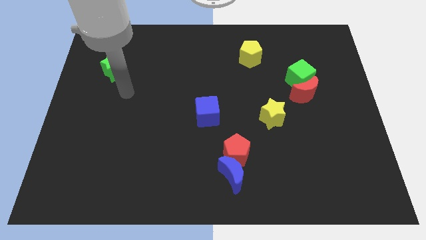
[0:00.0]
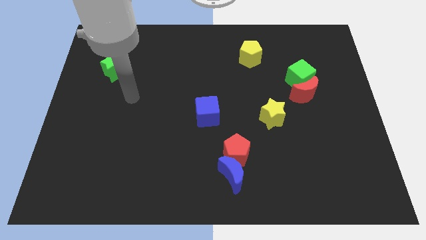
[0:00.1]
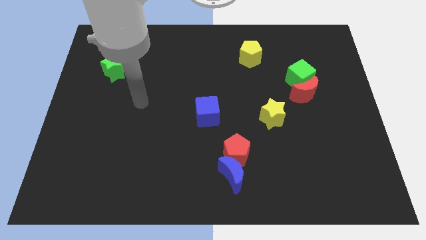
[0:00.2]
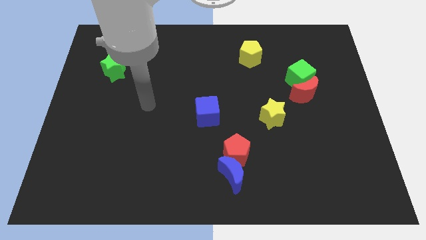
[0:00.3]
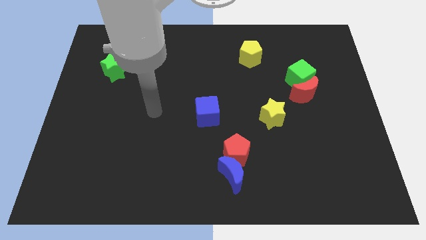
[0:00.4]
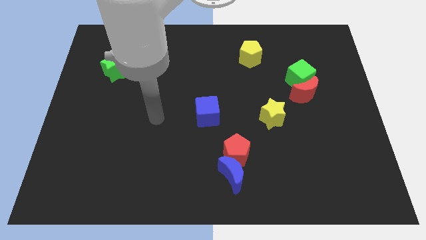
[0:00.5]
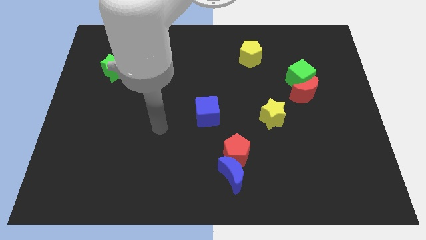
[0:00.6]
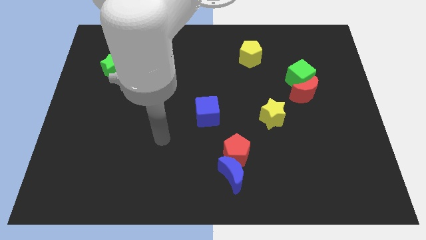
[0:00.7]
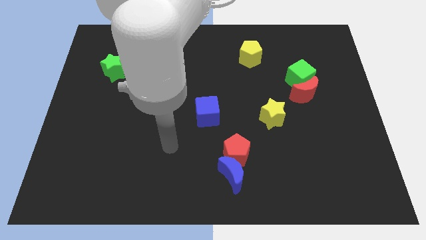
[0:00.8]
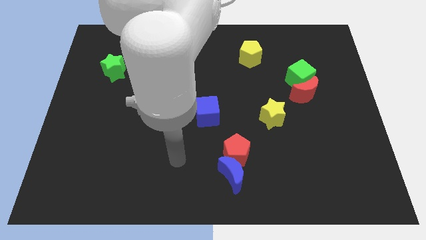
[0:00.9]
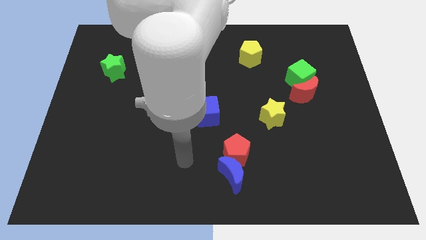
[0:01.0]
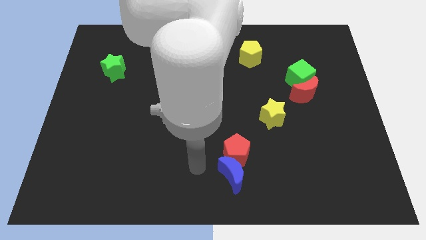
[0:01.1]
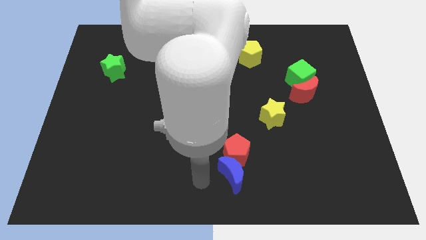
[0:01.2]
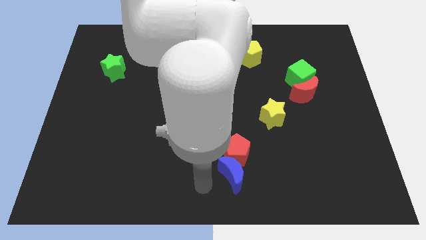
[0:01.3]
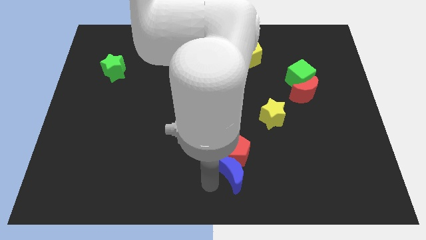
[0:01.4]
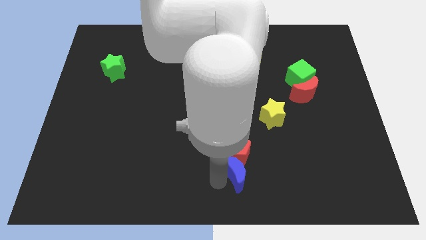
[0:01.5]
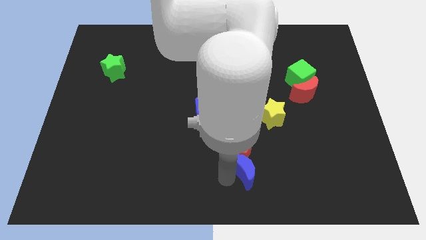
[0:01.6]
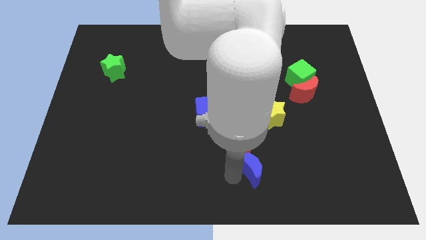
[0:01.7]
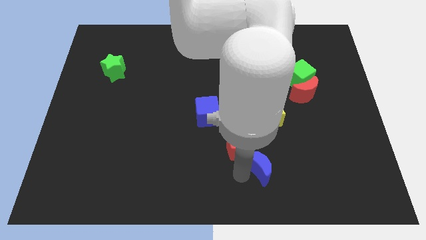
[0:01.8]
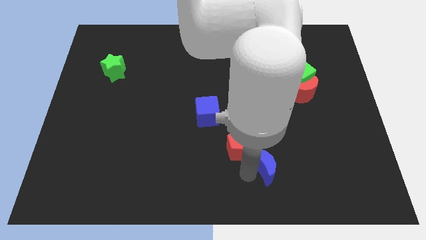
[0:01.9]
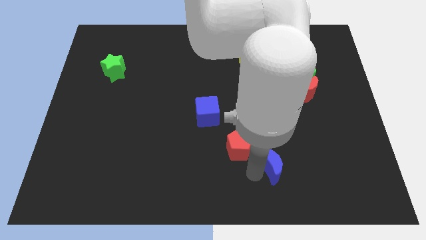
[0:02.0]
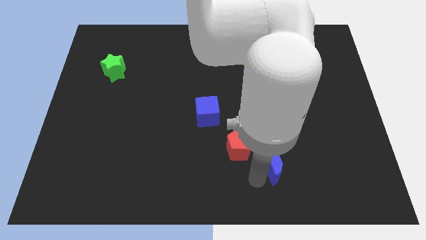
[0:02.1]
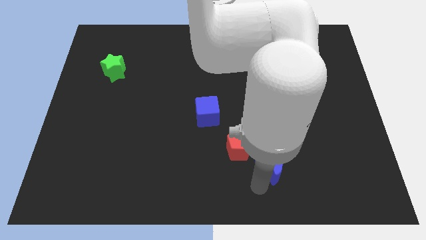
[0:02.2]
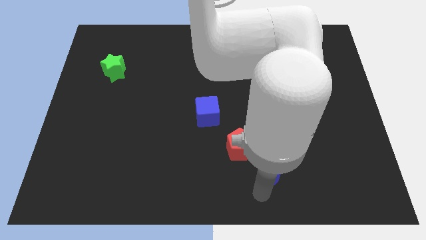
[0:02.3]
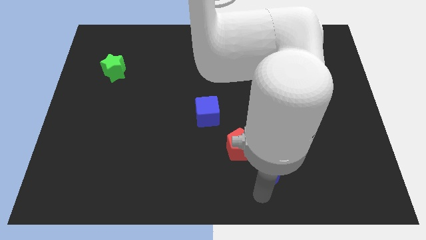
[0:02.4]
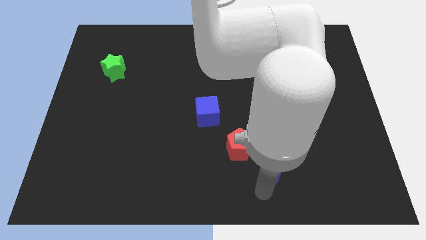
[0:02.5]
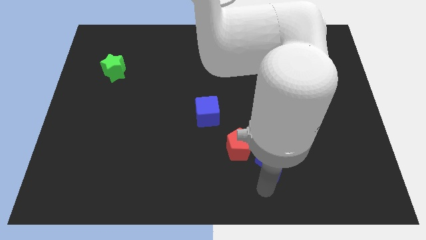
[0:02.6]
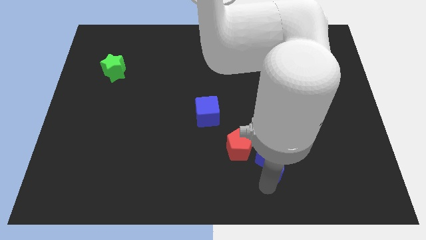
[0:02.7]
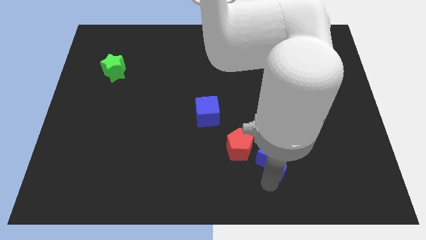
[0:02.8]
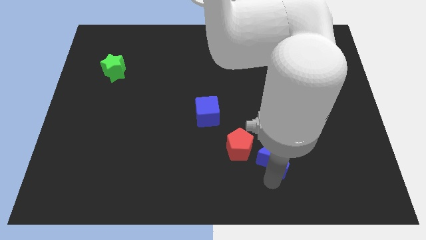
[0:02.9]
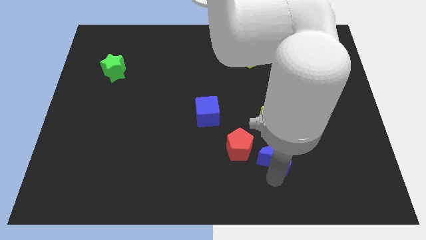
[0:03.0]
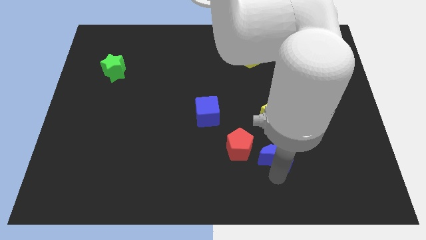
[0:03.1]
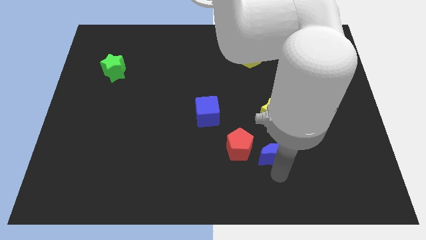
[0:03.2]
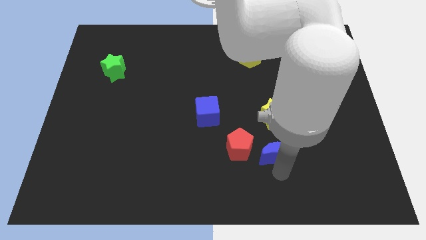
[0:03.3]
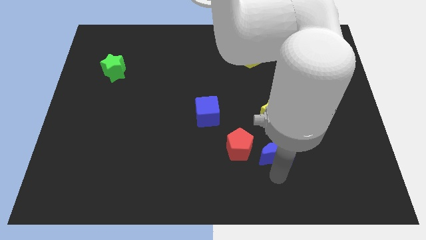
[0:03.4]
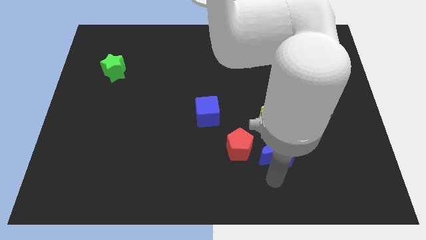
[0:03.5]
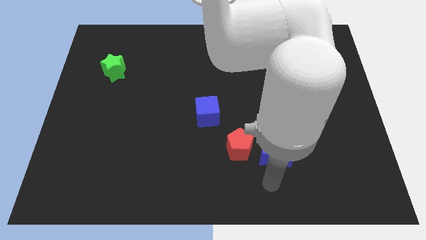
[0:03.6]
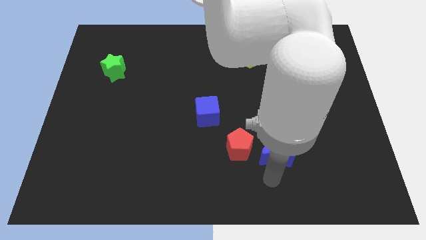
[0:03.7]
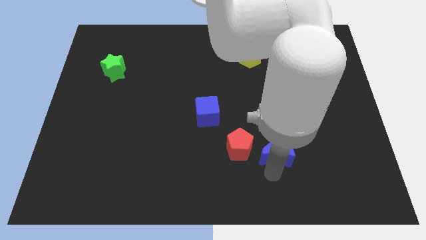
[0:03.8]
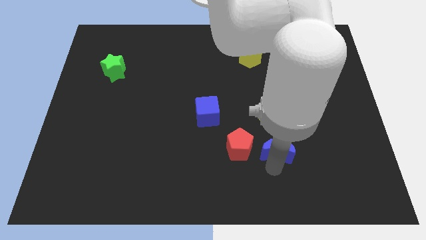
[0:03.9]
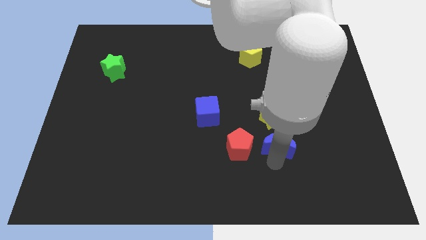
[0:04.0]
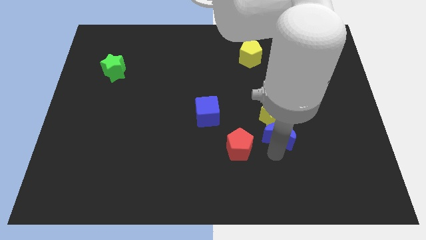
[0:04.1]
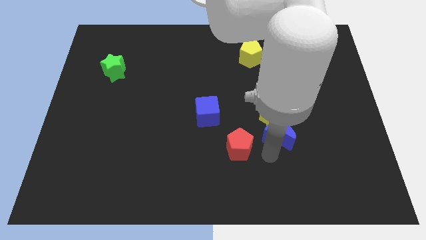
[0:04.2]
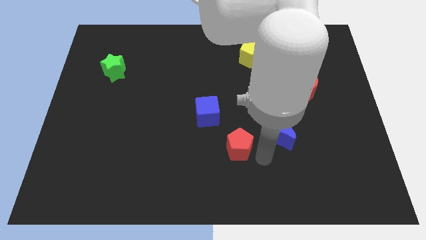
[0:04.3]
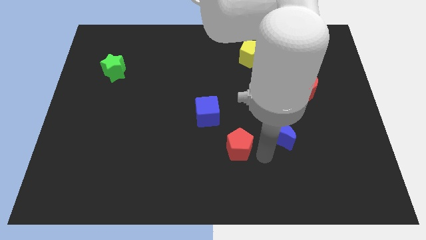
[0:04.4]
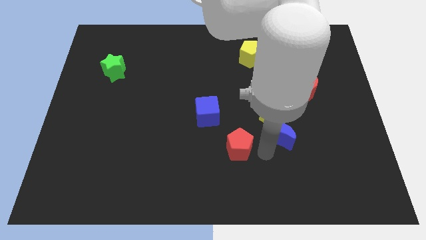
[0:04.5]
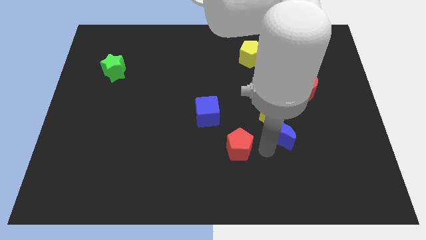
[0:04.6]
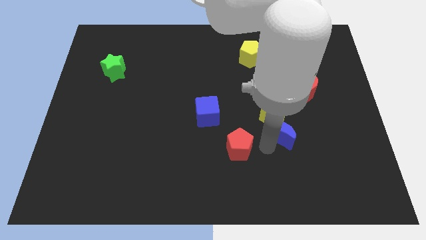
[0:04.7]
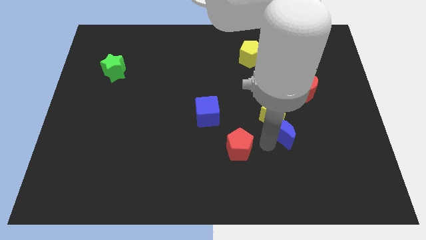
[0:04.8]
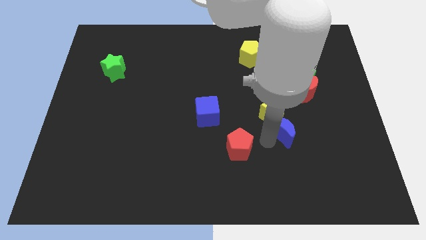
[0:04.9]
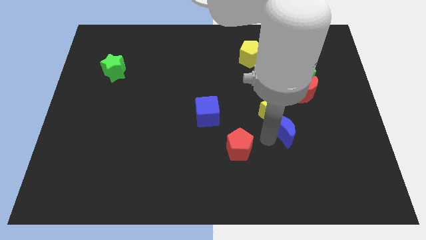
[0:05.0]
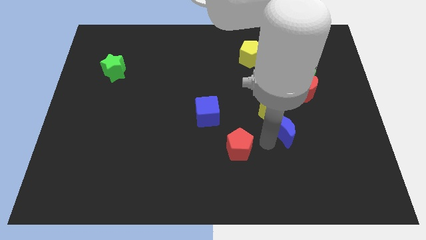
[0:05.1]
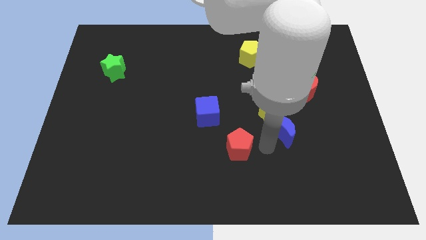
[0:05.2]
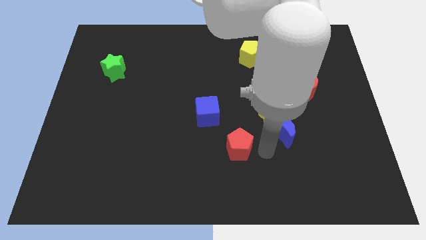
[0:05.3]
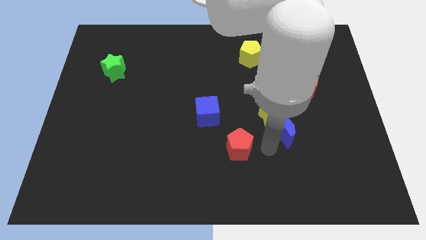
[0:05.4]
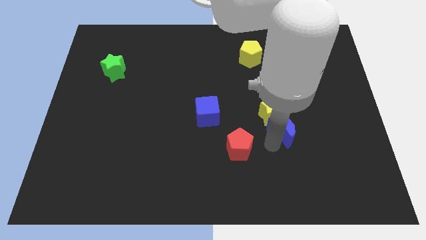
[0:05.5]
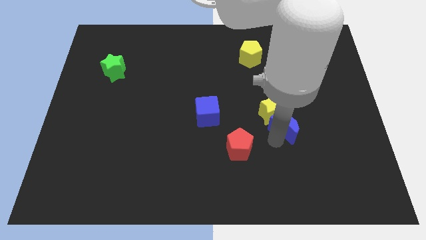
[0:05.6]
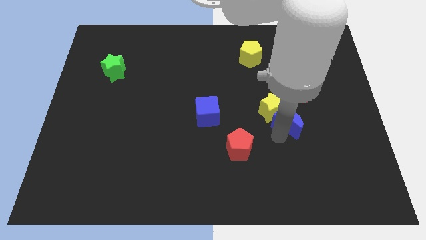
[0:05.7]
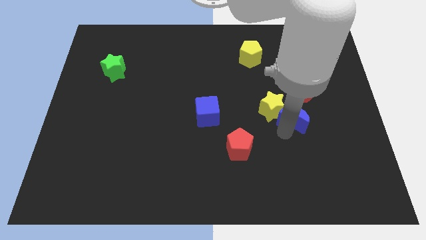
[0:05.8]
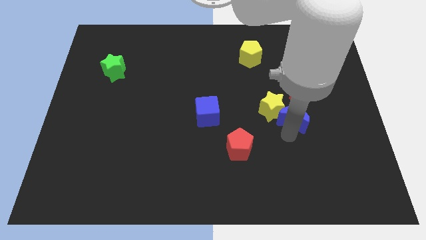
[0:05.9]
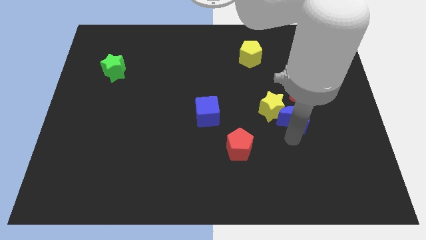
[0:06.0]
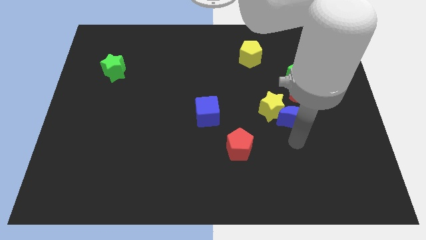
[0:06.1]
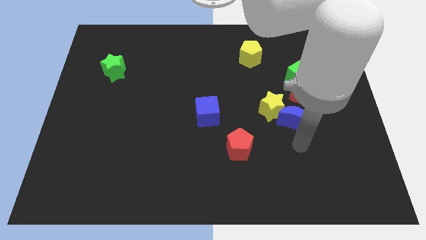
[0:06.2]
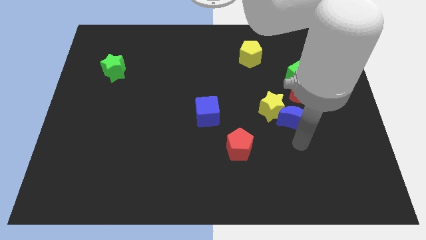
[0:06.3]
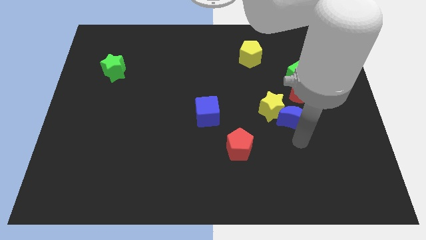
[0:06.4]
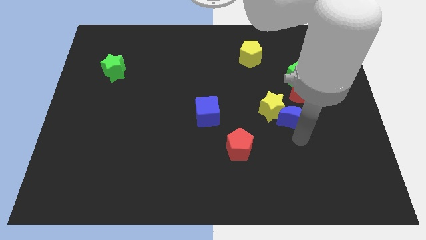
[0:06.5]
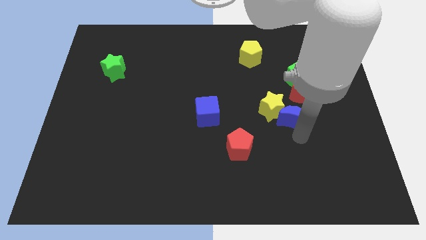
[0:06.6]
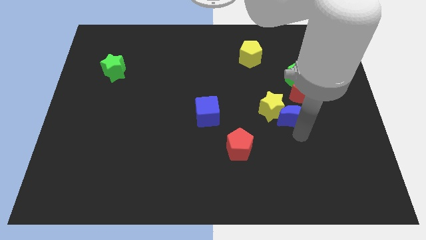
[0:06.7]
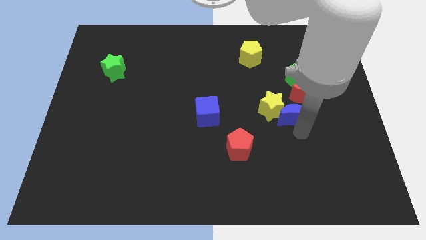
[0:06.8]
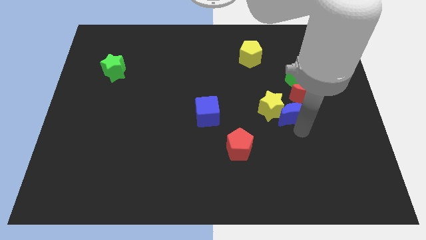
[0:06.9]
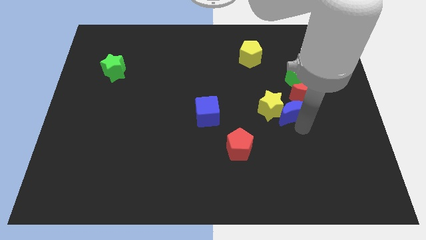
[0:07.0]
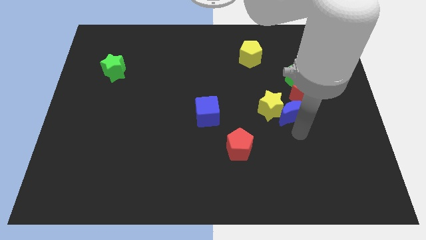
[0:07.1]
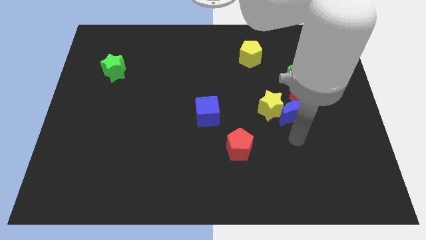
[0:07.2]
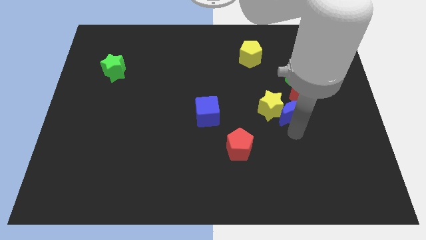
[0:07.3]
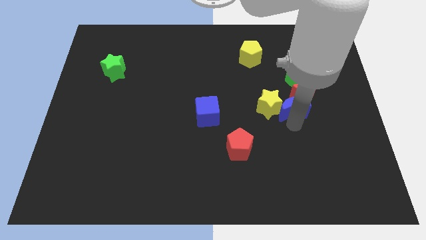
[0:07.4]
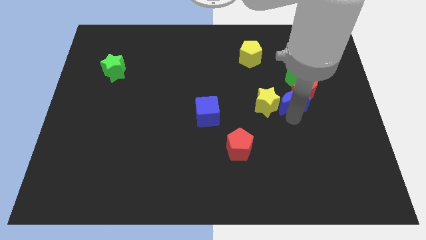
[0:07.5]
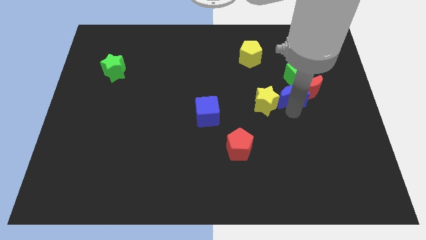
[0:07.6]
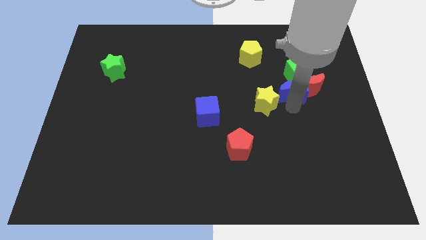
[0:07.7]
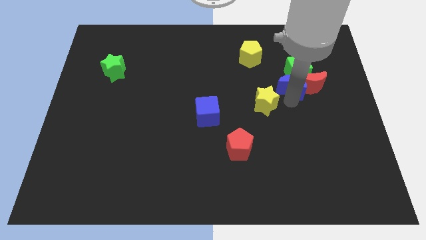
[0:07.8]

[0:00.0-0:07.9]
slide the blue moon to the green cube
